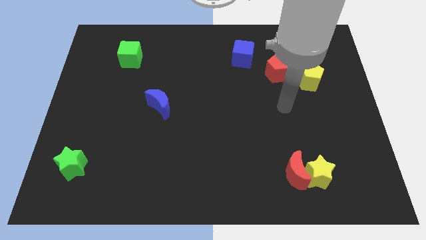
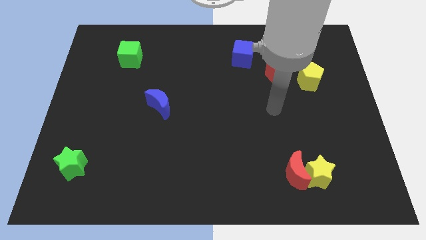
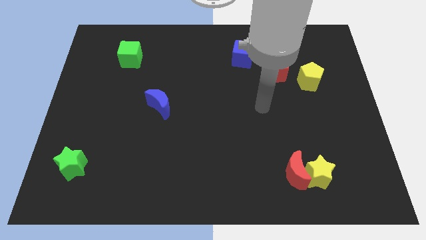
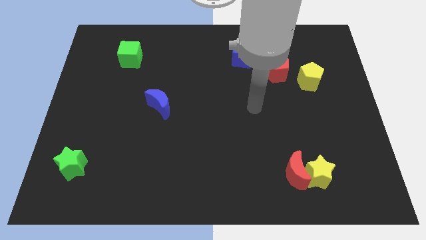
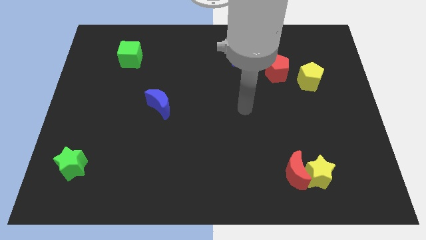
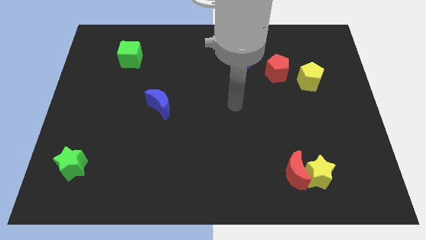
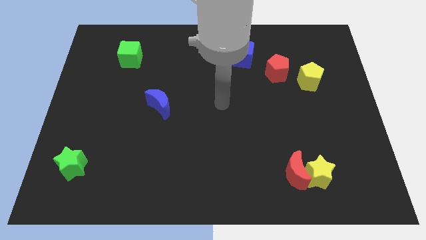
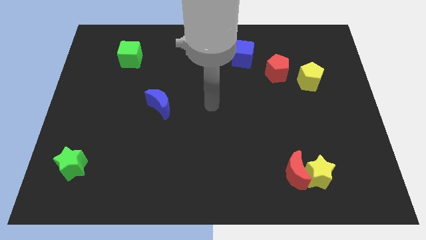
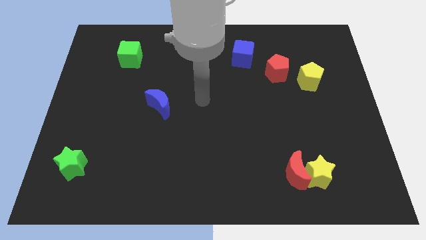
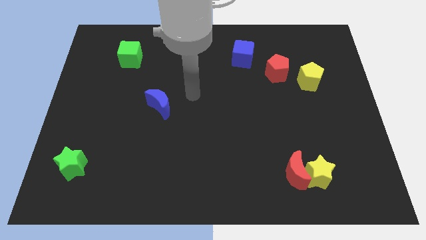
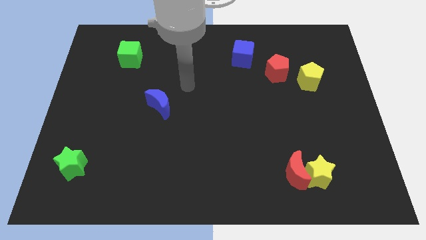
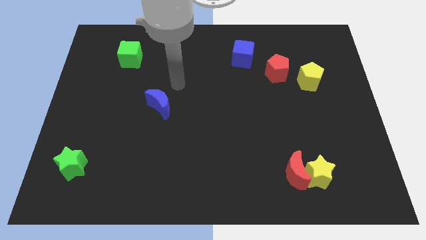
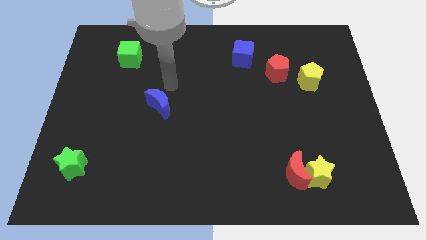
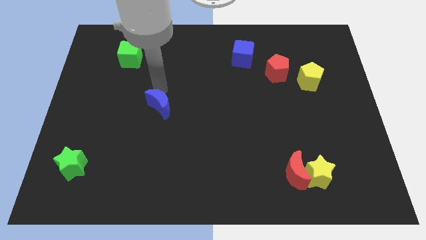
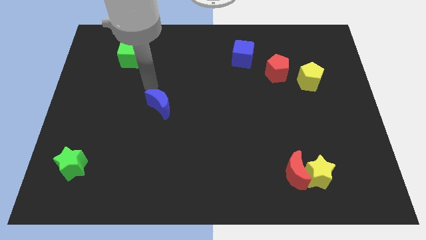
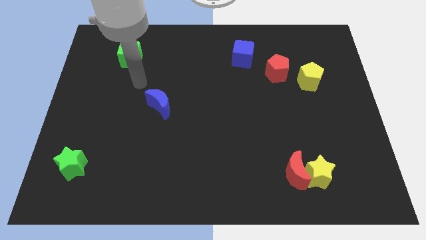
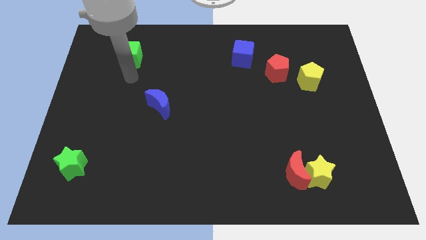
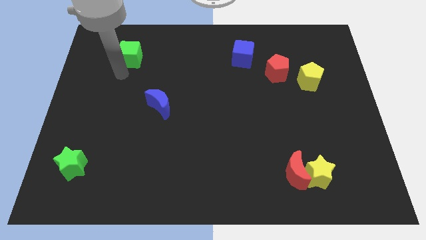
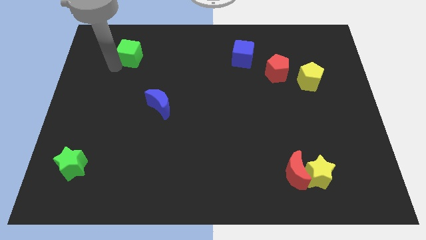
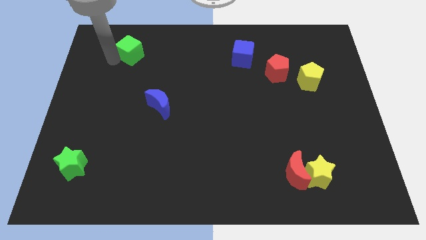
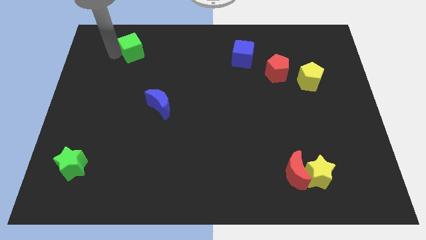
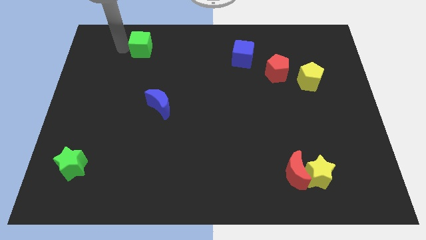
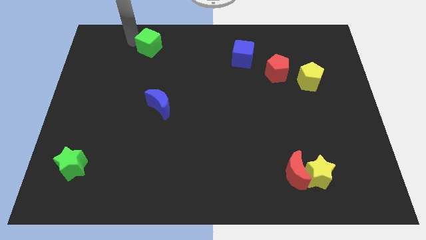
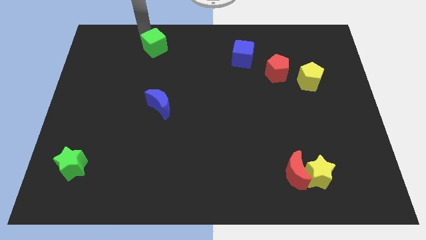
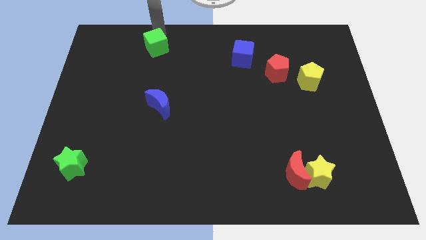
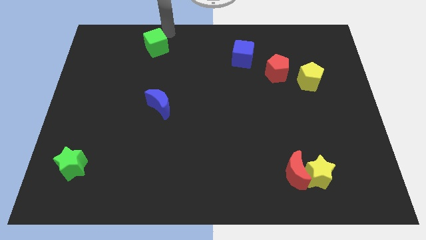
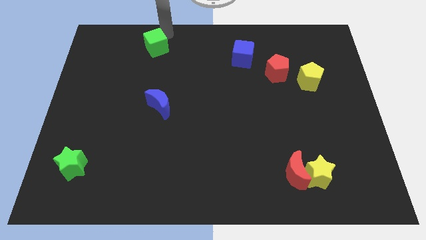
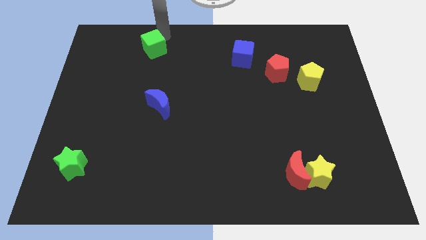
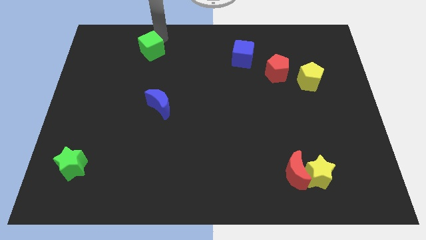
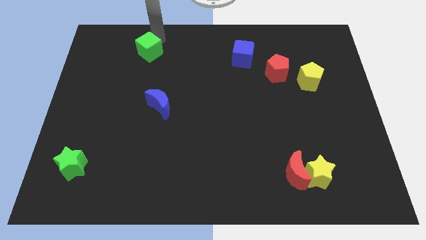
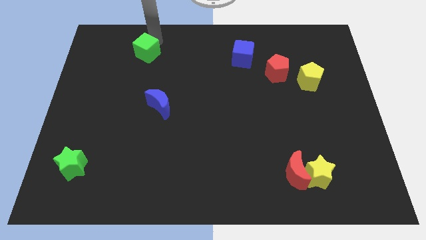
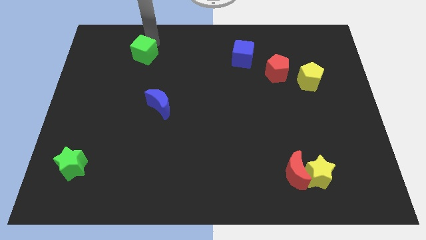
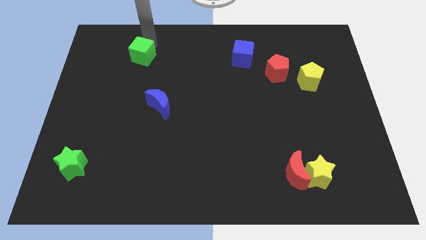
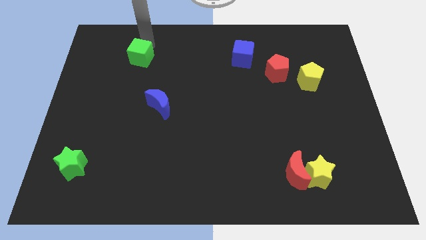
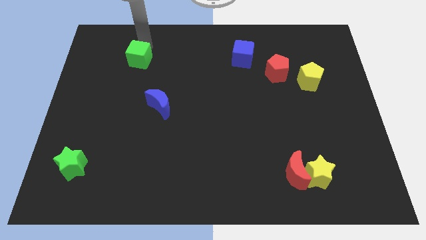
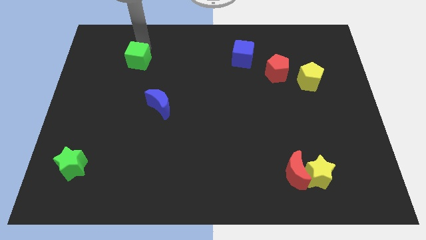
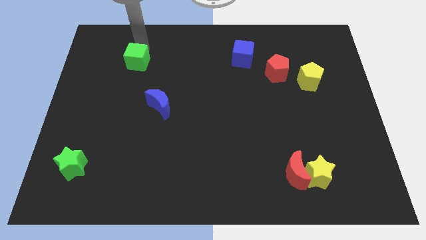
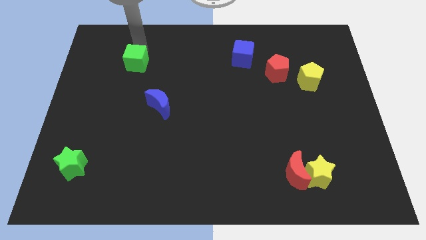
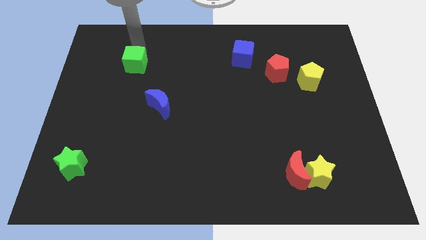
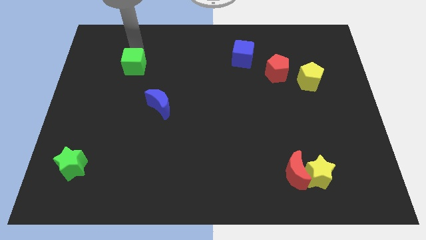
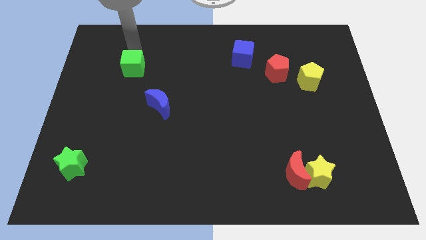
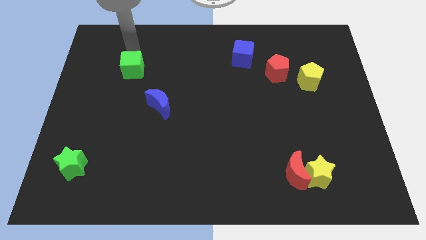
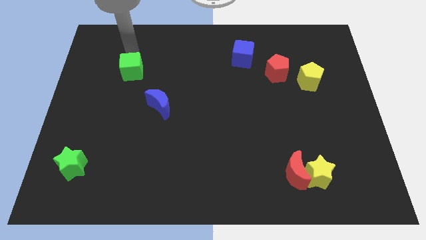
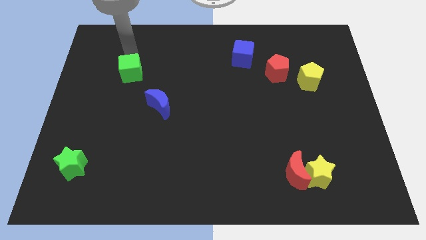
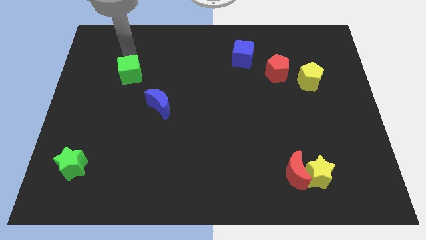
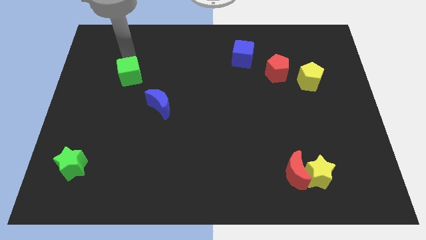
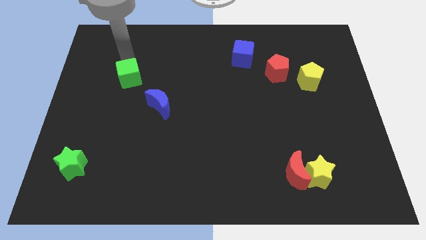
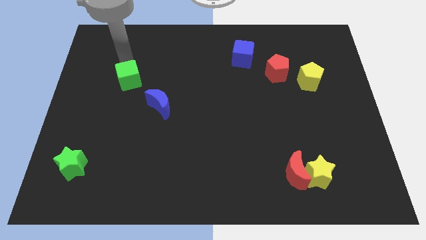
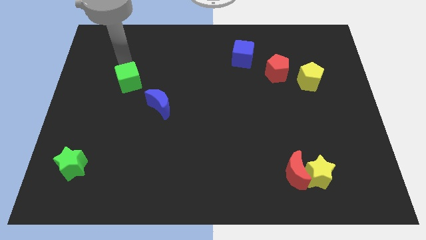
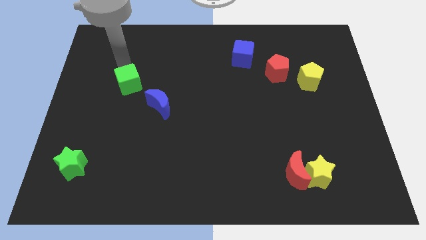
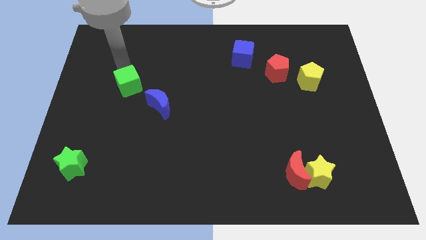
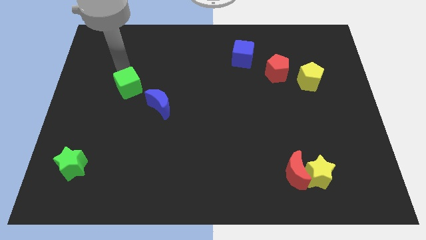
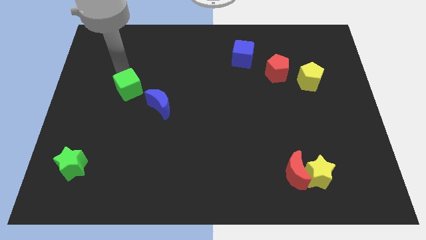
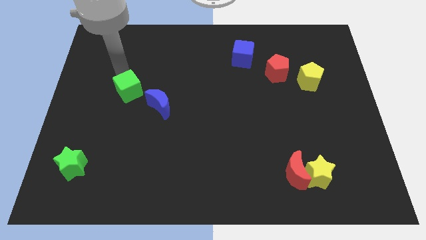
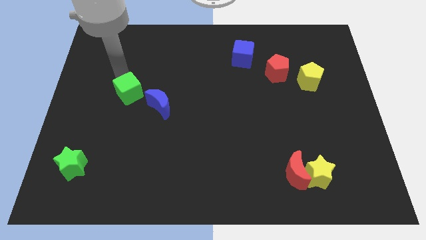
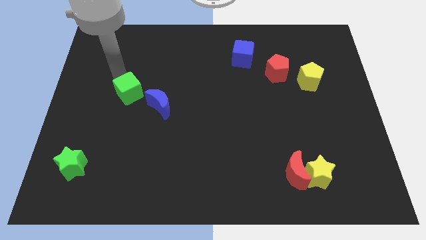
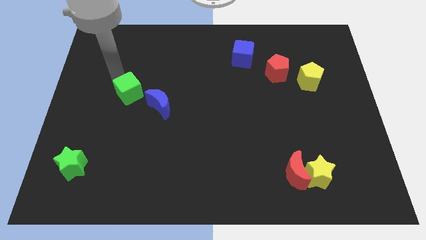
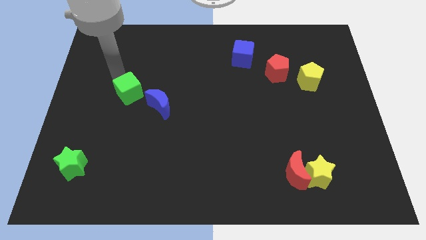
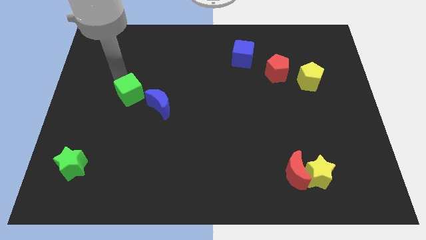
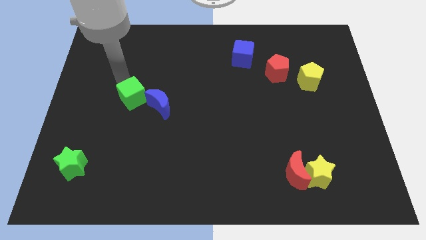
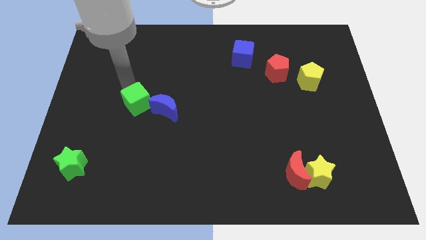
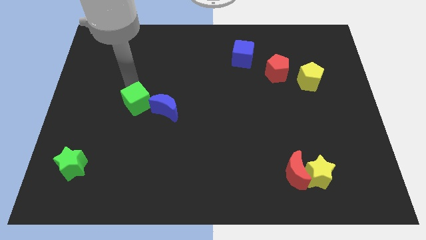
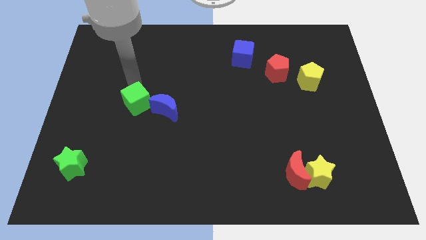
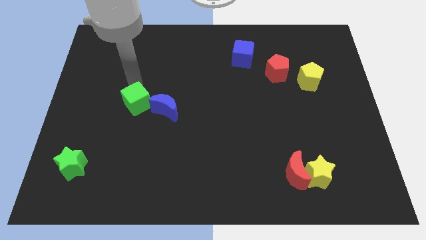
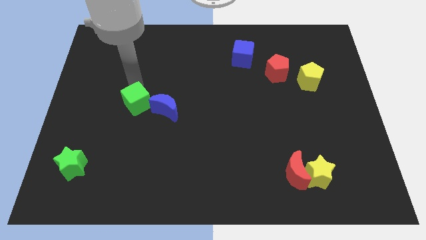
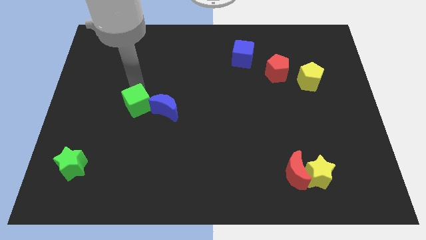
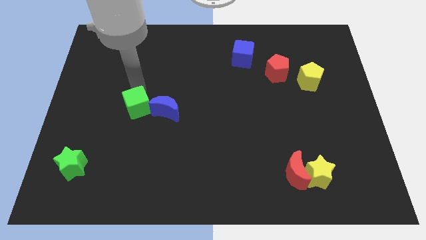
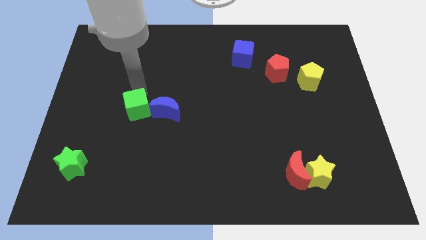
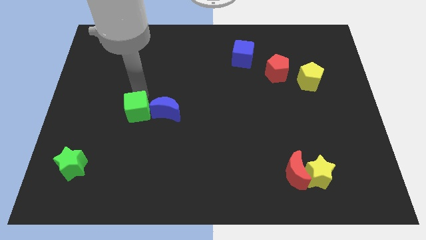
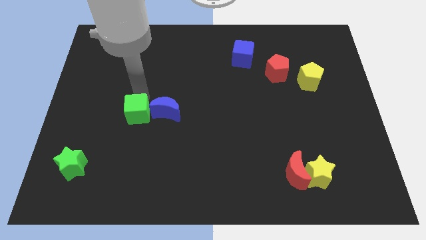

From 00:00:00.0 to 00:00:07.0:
move the green cube to the bottom left side of the blue moon
